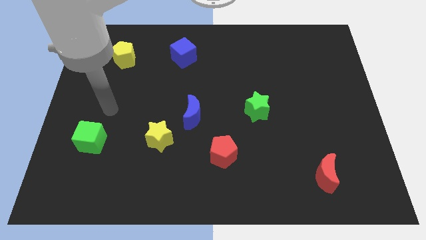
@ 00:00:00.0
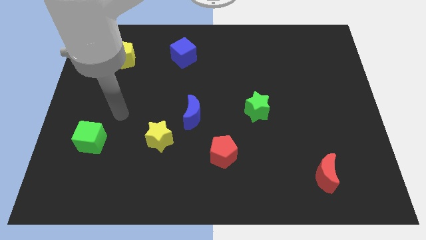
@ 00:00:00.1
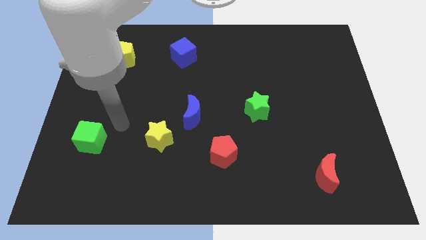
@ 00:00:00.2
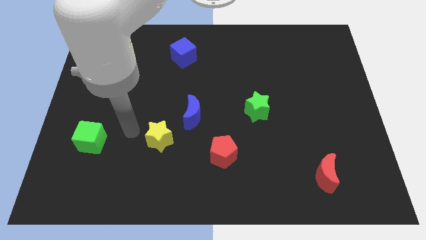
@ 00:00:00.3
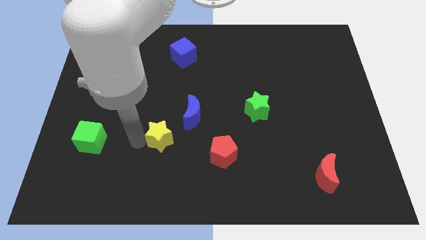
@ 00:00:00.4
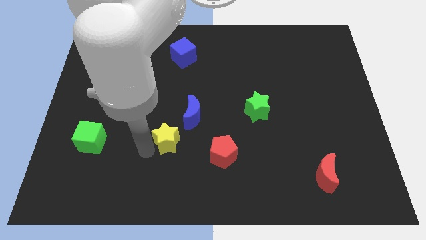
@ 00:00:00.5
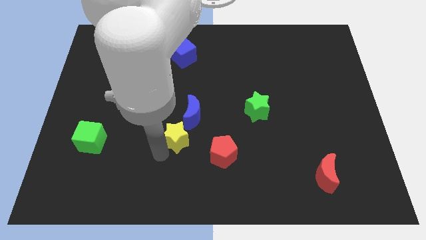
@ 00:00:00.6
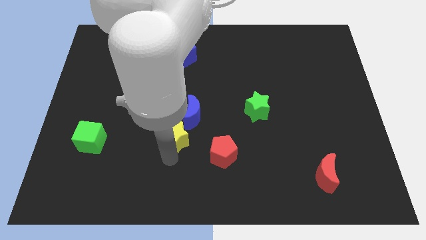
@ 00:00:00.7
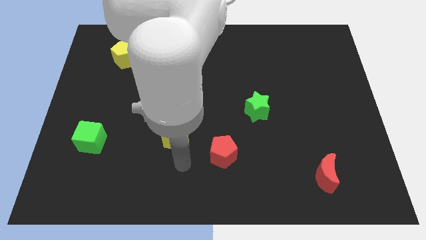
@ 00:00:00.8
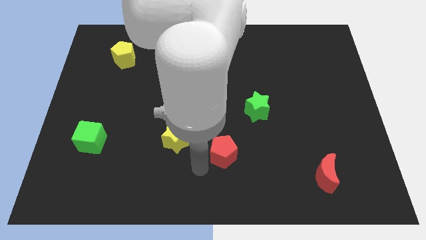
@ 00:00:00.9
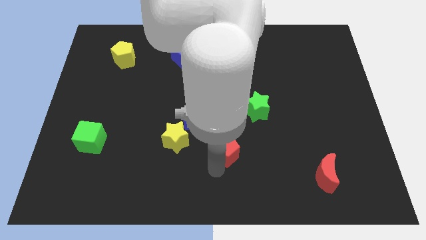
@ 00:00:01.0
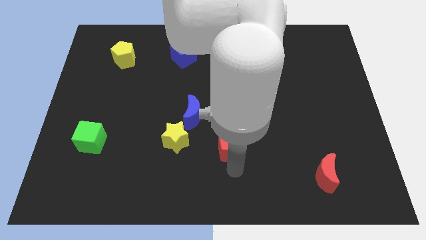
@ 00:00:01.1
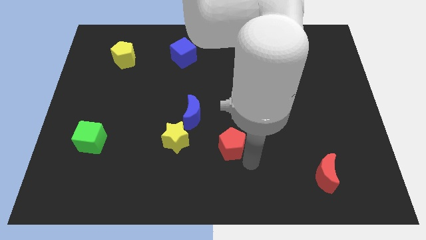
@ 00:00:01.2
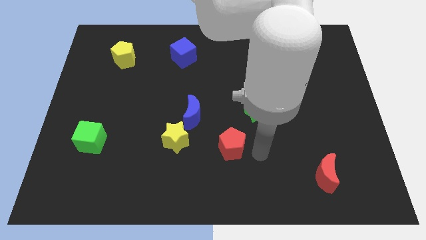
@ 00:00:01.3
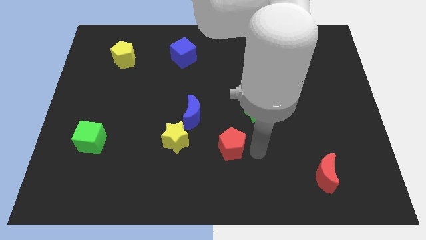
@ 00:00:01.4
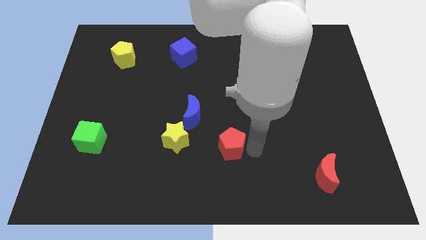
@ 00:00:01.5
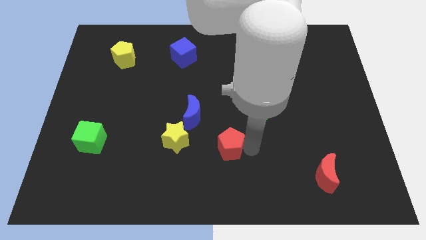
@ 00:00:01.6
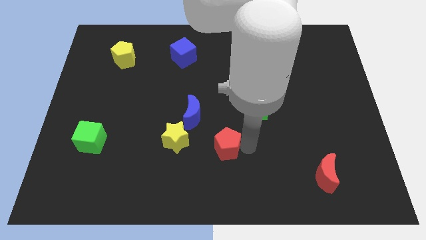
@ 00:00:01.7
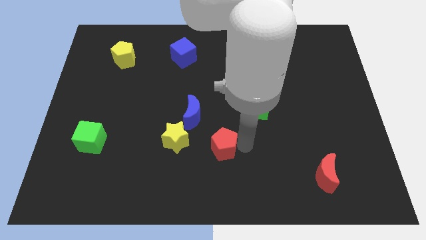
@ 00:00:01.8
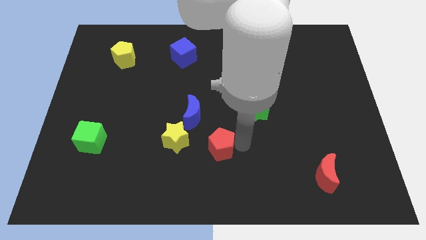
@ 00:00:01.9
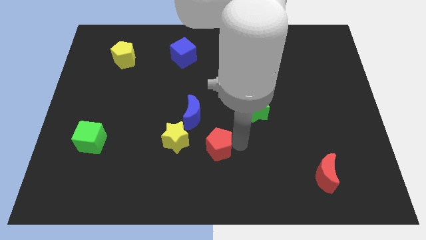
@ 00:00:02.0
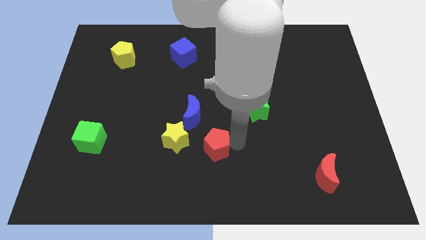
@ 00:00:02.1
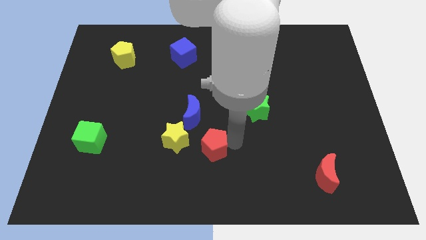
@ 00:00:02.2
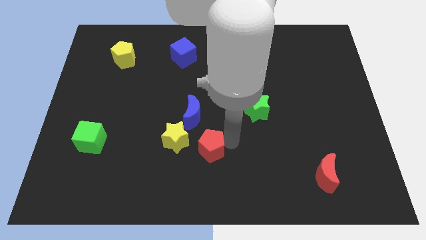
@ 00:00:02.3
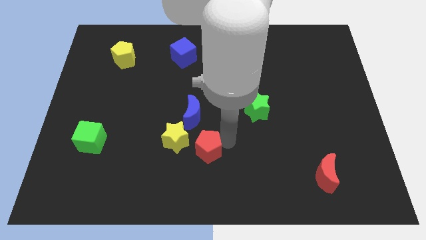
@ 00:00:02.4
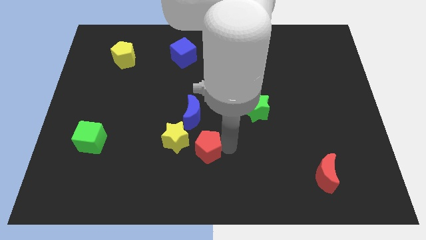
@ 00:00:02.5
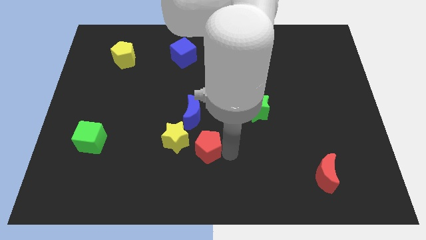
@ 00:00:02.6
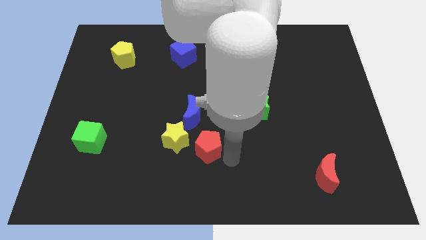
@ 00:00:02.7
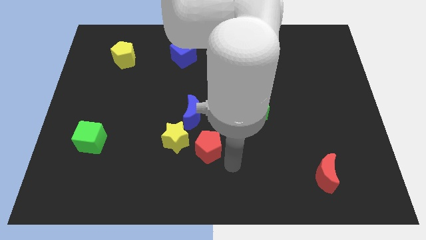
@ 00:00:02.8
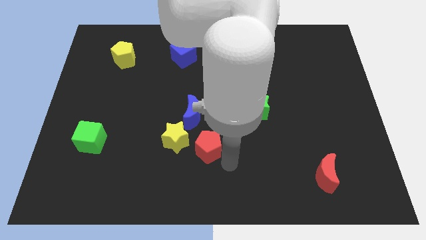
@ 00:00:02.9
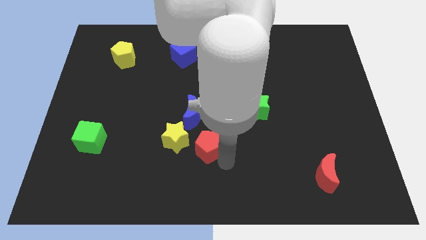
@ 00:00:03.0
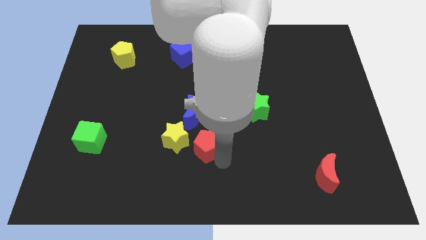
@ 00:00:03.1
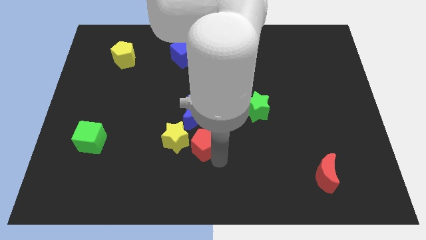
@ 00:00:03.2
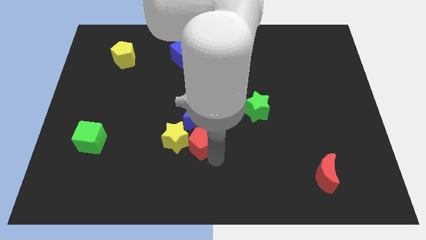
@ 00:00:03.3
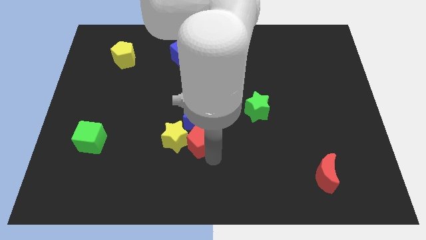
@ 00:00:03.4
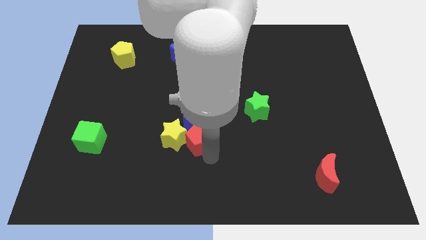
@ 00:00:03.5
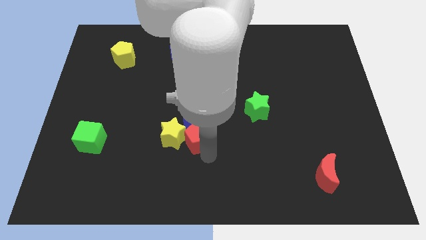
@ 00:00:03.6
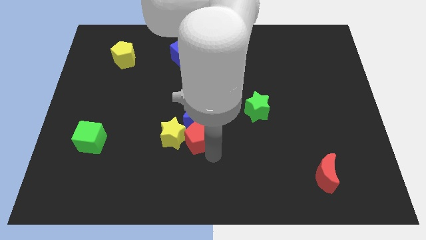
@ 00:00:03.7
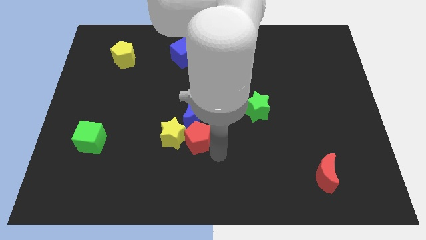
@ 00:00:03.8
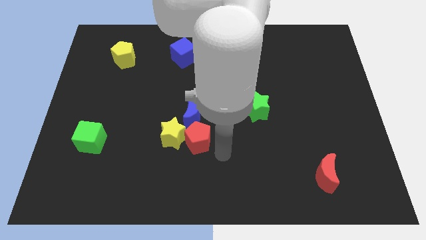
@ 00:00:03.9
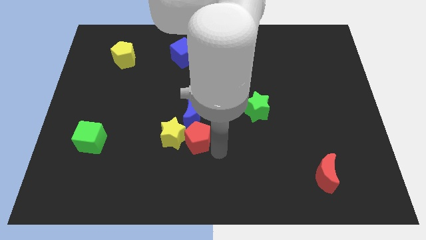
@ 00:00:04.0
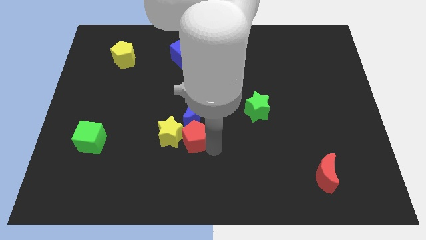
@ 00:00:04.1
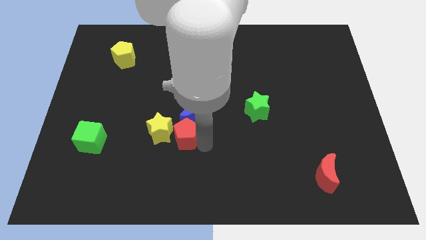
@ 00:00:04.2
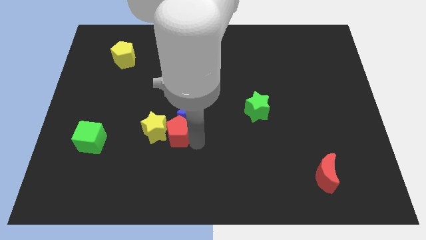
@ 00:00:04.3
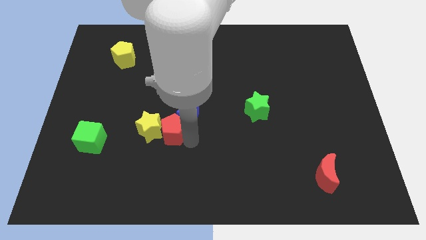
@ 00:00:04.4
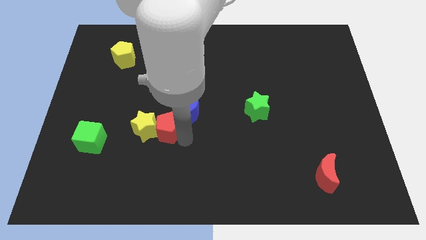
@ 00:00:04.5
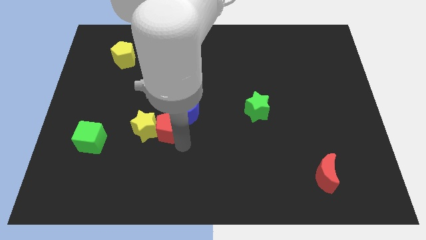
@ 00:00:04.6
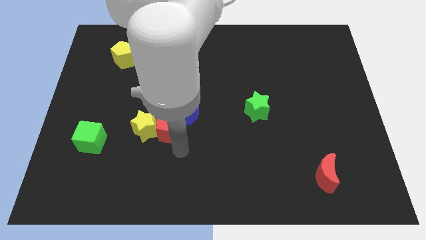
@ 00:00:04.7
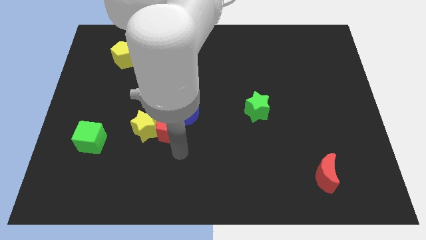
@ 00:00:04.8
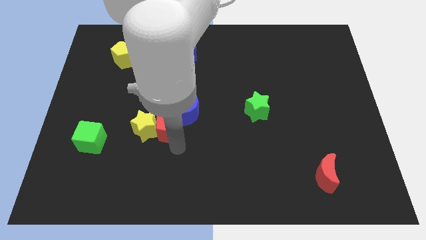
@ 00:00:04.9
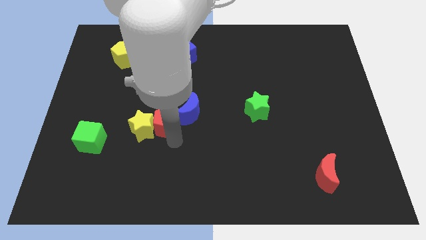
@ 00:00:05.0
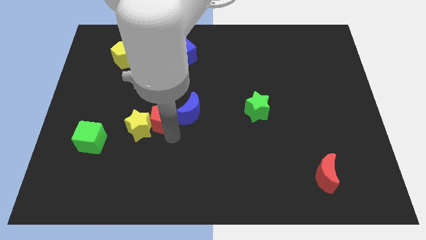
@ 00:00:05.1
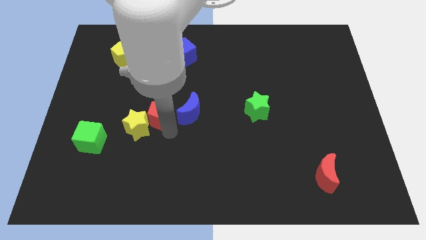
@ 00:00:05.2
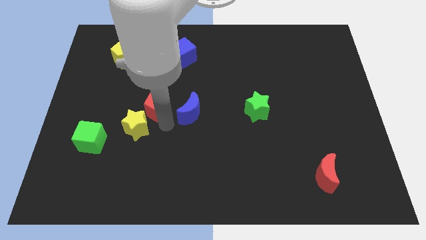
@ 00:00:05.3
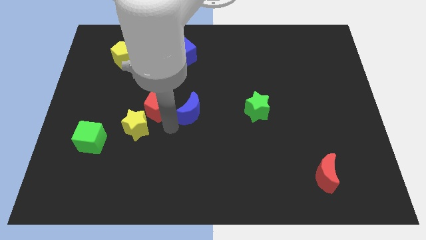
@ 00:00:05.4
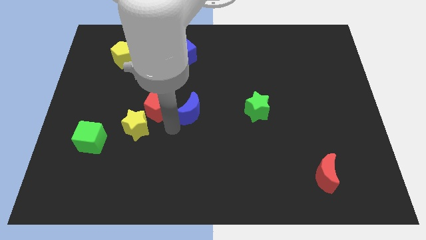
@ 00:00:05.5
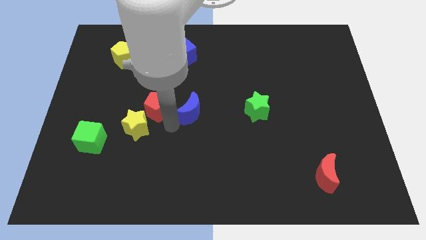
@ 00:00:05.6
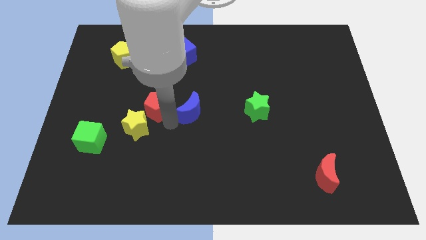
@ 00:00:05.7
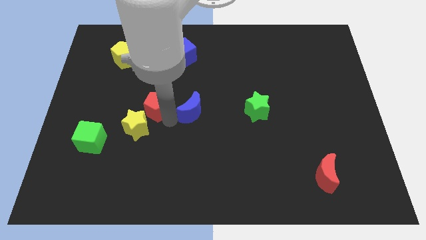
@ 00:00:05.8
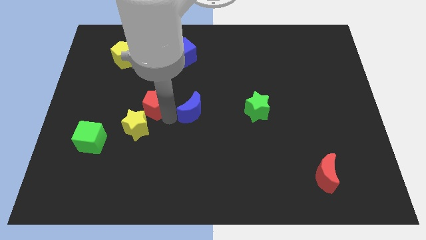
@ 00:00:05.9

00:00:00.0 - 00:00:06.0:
move the red pentagon upwards and to the left

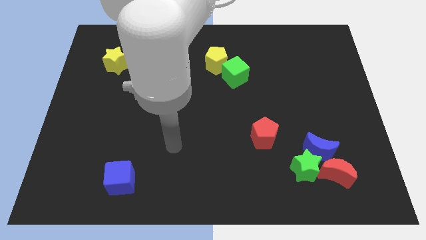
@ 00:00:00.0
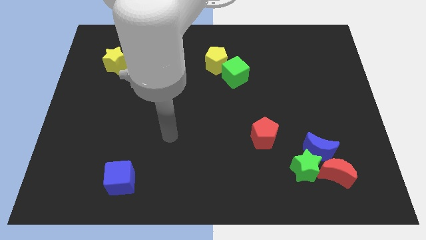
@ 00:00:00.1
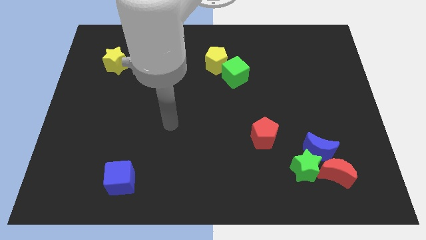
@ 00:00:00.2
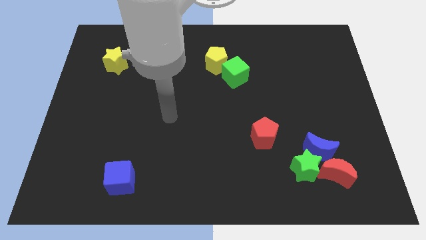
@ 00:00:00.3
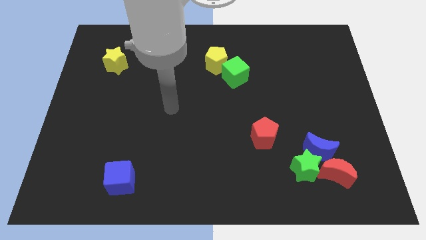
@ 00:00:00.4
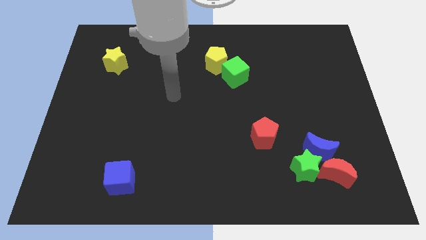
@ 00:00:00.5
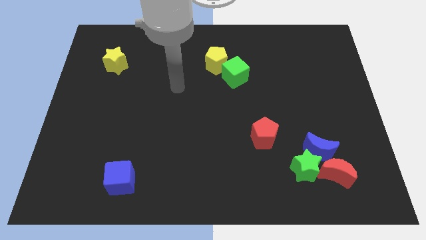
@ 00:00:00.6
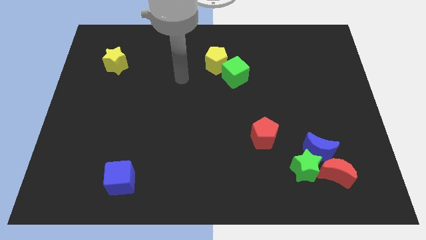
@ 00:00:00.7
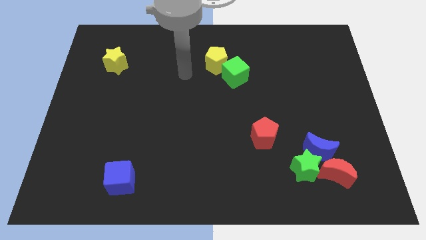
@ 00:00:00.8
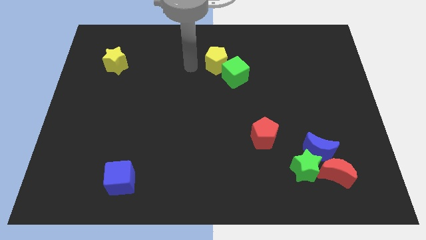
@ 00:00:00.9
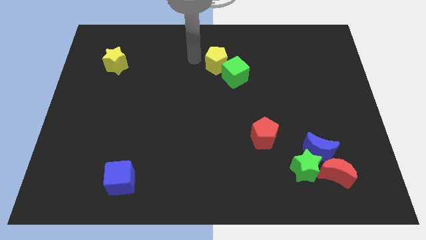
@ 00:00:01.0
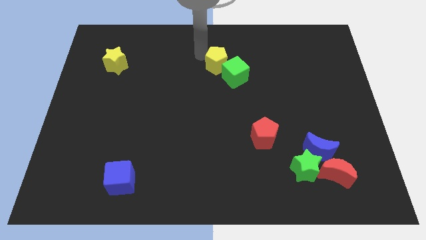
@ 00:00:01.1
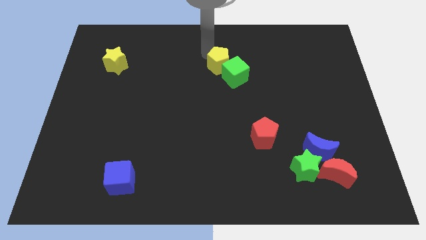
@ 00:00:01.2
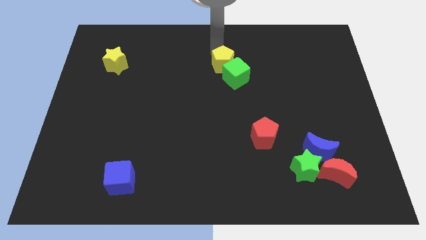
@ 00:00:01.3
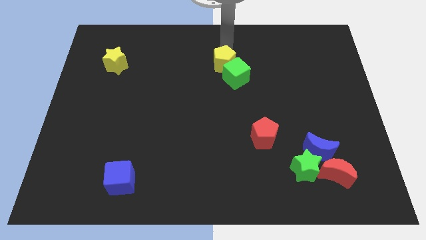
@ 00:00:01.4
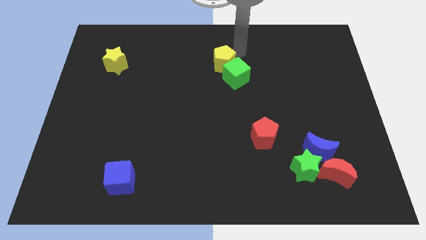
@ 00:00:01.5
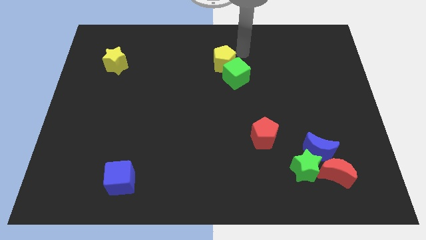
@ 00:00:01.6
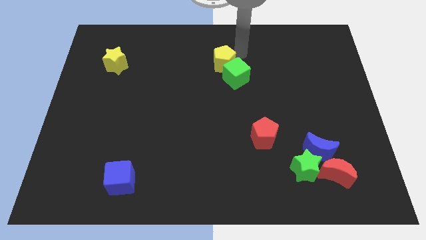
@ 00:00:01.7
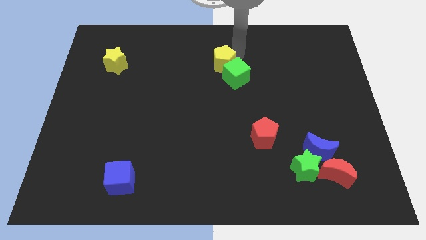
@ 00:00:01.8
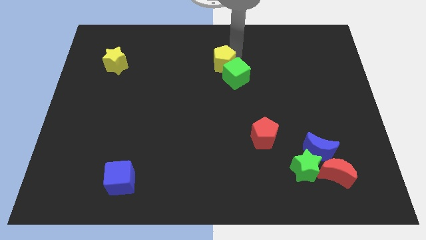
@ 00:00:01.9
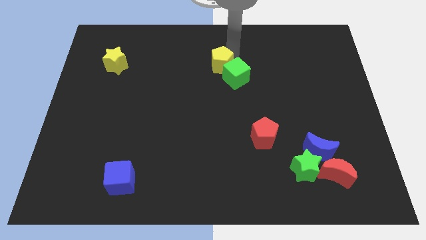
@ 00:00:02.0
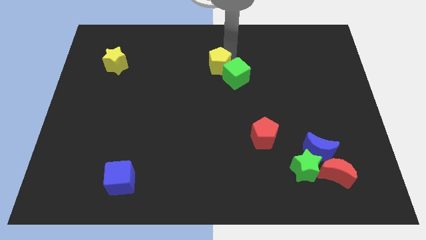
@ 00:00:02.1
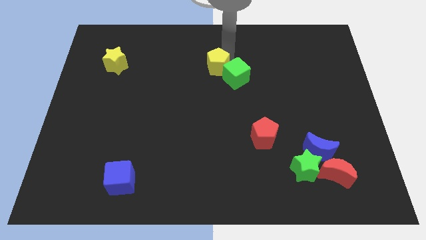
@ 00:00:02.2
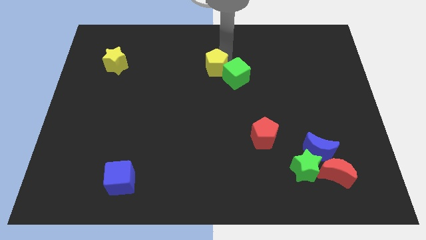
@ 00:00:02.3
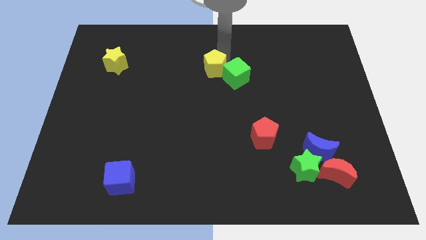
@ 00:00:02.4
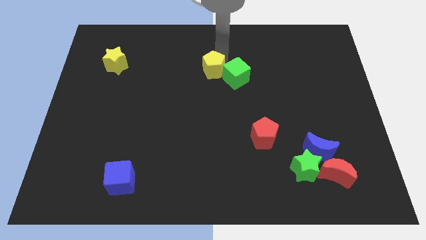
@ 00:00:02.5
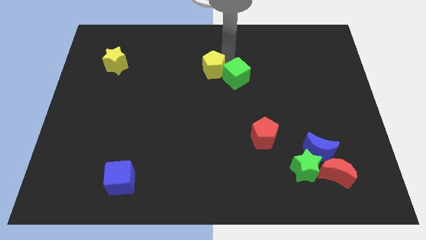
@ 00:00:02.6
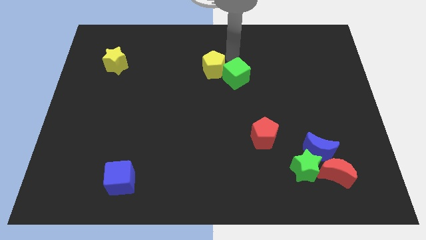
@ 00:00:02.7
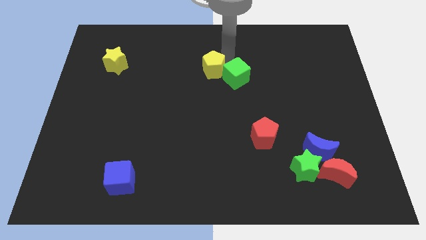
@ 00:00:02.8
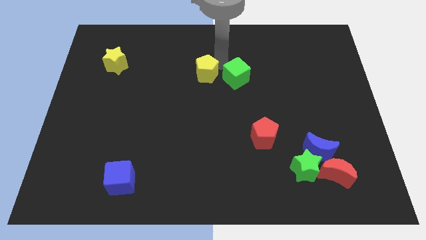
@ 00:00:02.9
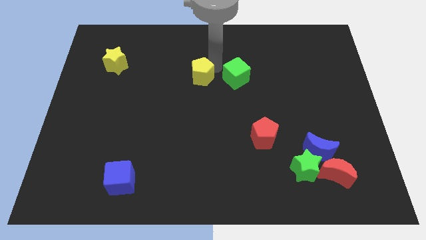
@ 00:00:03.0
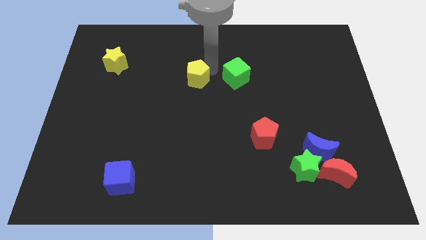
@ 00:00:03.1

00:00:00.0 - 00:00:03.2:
slide the yellow pentagon slightly down and then left
